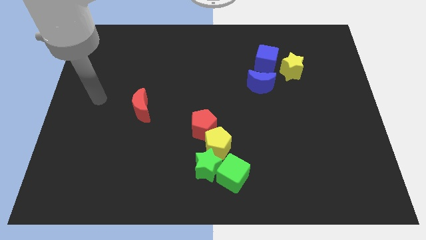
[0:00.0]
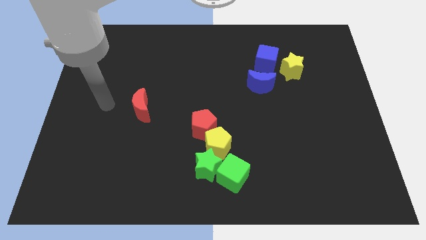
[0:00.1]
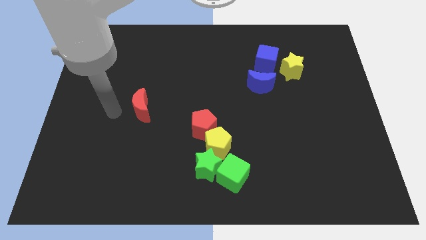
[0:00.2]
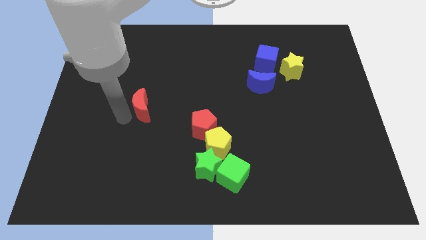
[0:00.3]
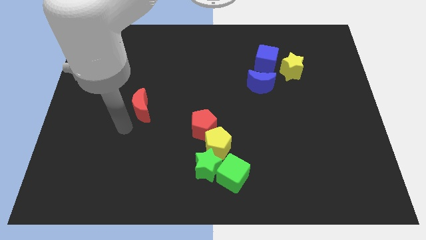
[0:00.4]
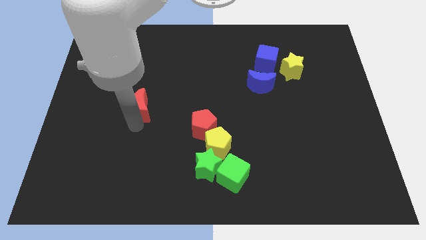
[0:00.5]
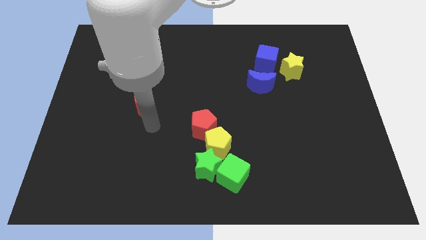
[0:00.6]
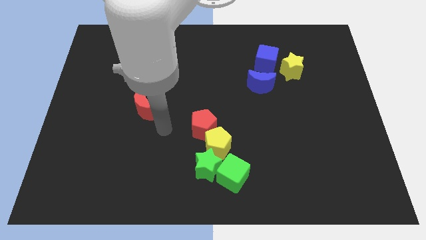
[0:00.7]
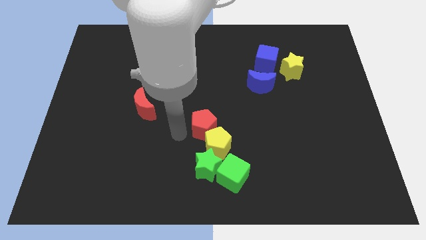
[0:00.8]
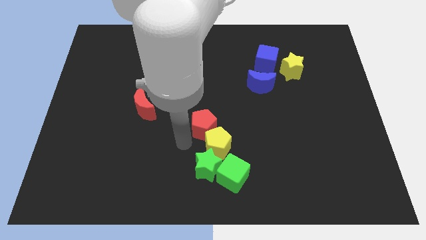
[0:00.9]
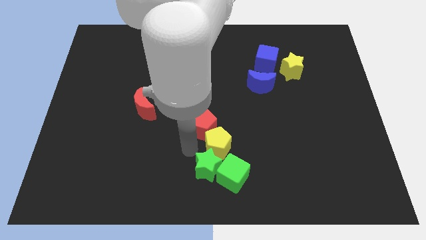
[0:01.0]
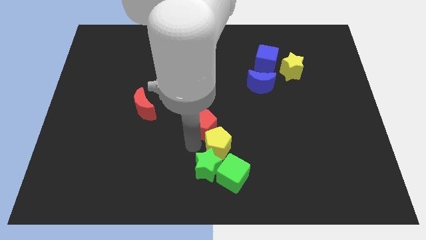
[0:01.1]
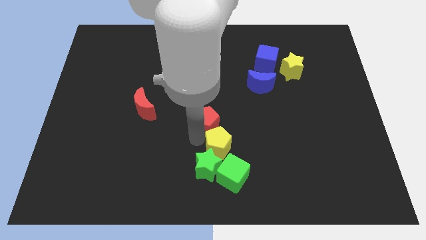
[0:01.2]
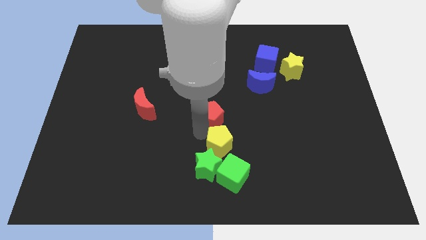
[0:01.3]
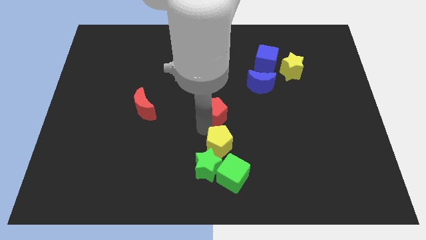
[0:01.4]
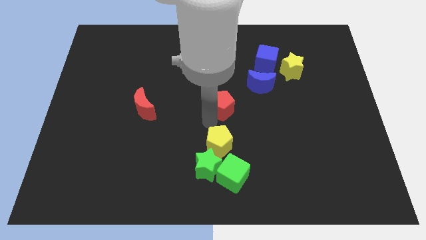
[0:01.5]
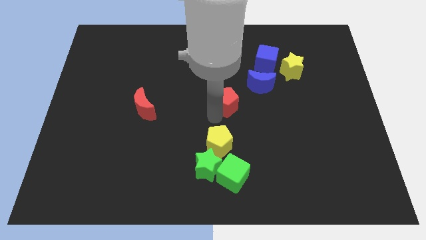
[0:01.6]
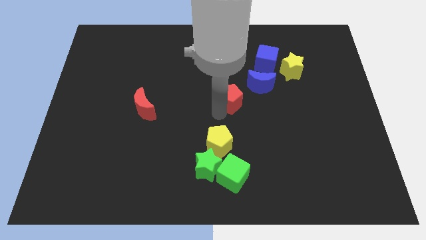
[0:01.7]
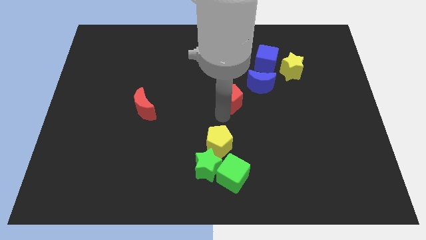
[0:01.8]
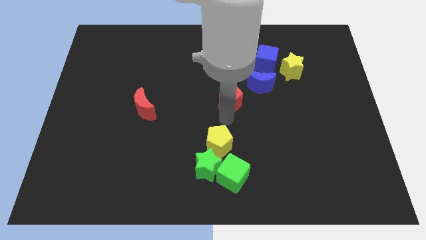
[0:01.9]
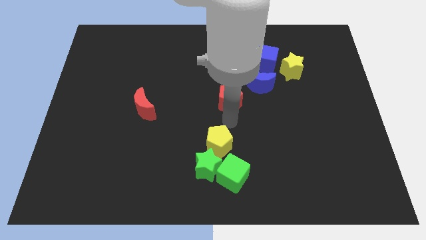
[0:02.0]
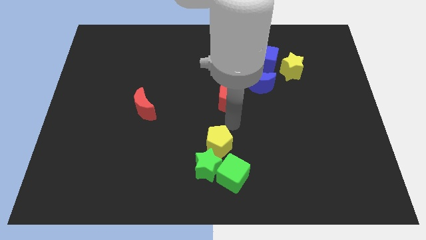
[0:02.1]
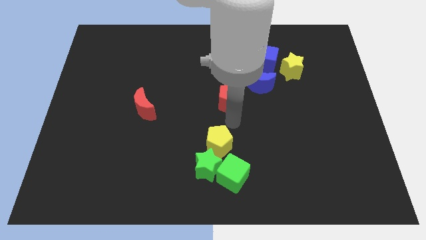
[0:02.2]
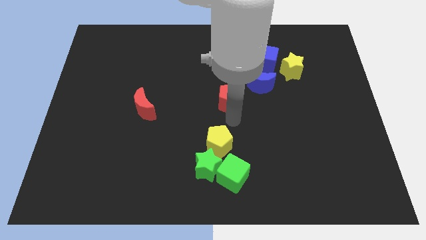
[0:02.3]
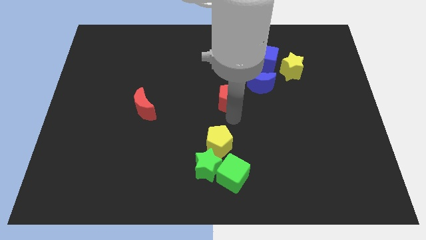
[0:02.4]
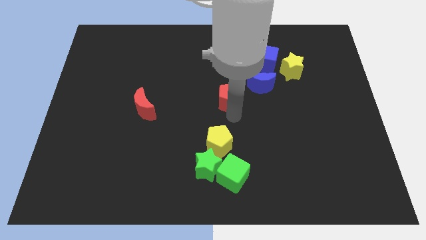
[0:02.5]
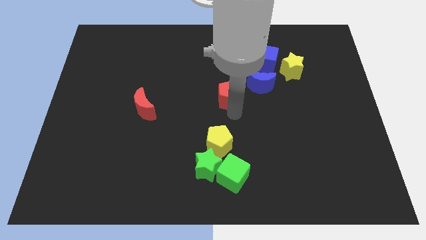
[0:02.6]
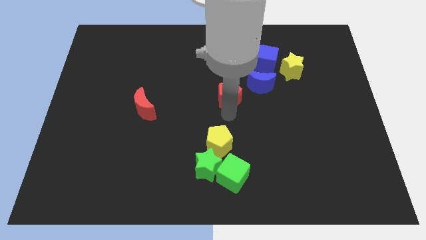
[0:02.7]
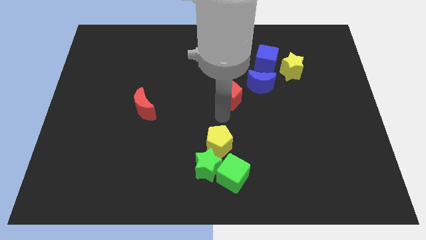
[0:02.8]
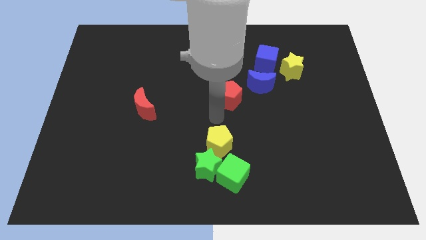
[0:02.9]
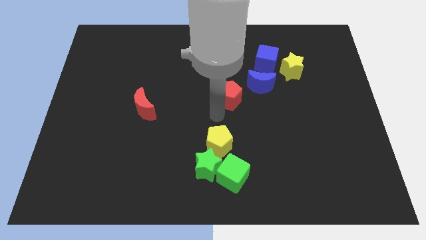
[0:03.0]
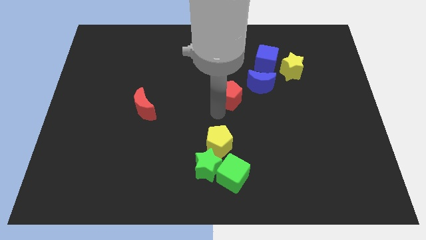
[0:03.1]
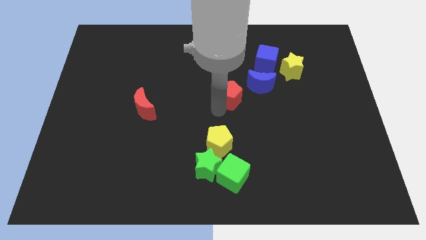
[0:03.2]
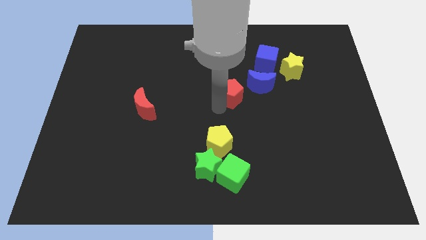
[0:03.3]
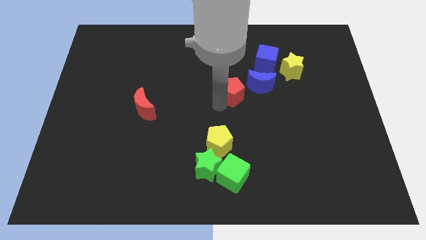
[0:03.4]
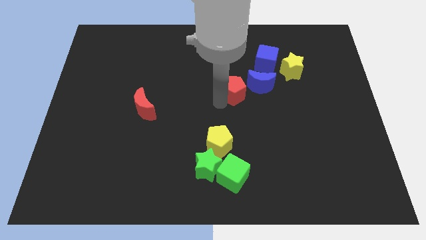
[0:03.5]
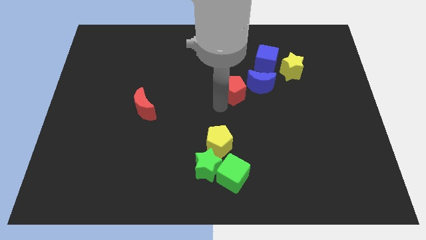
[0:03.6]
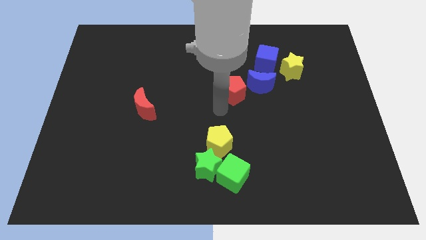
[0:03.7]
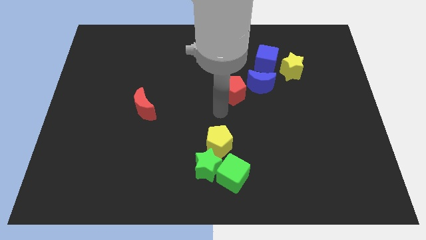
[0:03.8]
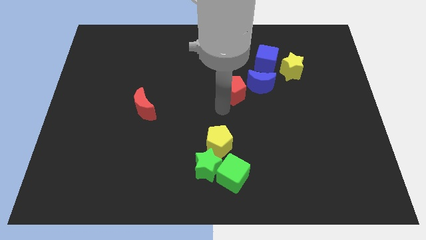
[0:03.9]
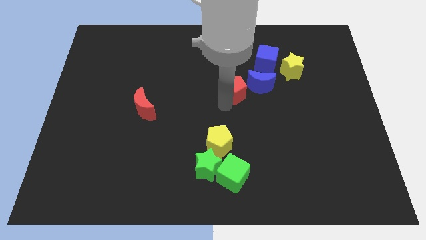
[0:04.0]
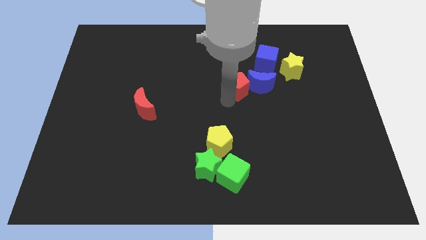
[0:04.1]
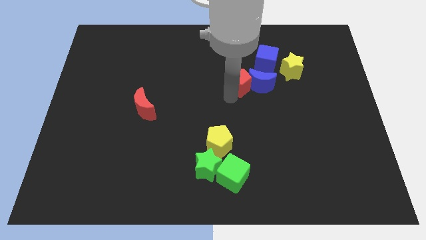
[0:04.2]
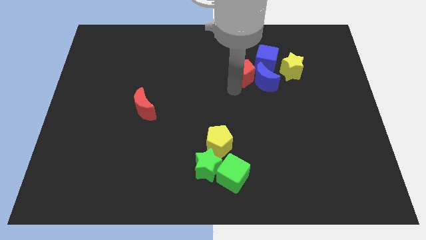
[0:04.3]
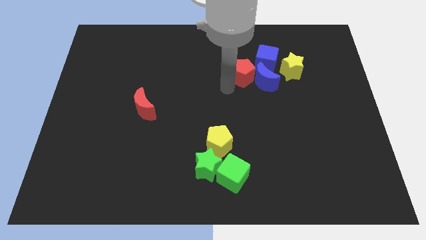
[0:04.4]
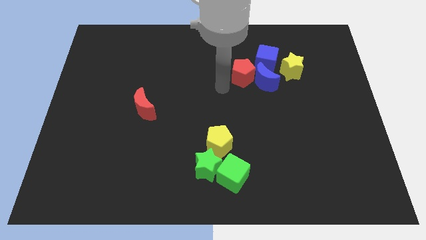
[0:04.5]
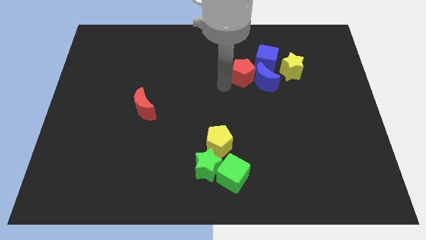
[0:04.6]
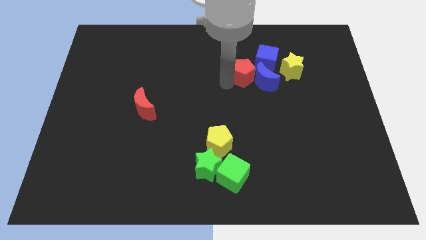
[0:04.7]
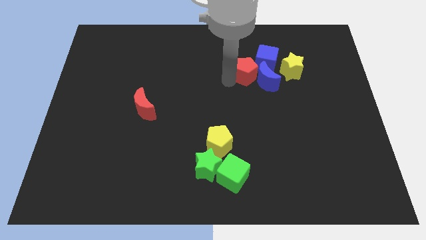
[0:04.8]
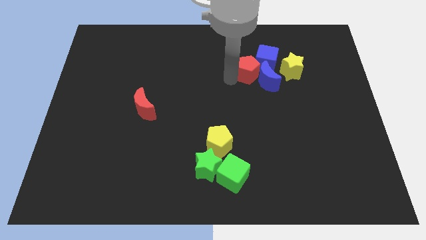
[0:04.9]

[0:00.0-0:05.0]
put the red pentagon towards the blue cube

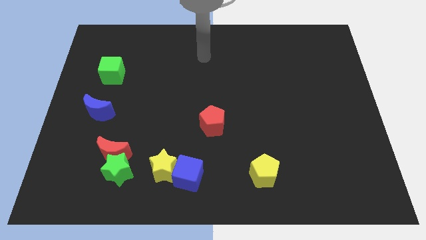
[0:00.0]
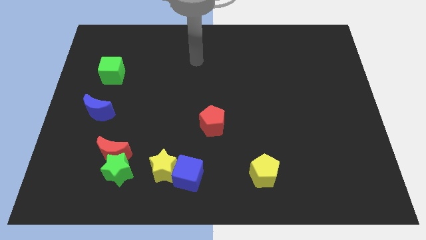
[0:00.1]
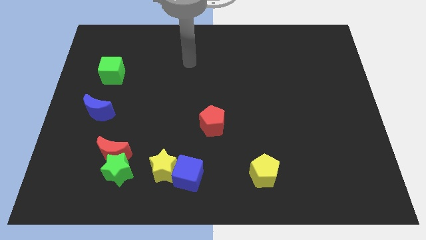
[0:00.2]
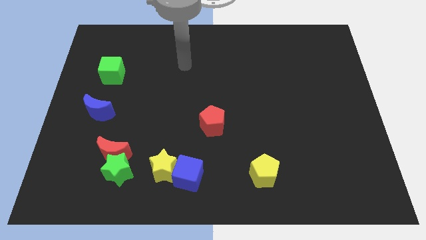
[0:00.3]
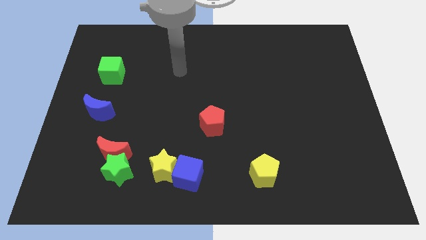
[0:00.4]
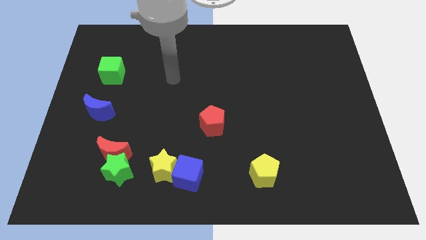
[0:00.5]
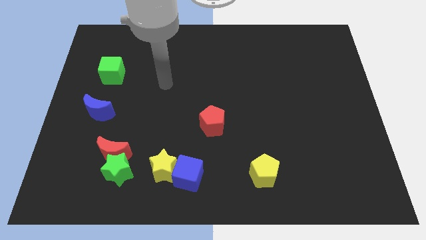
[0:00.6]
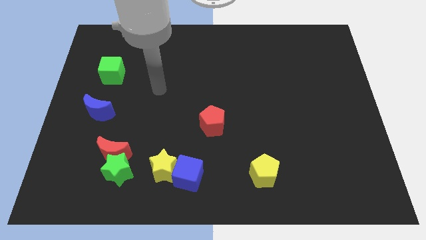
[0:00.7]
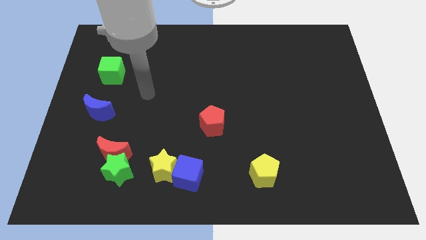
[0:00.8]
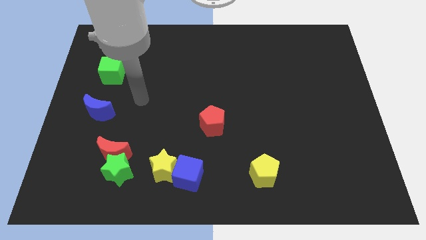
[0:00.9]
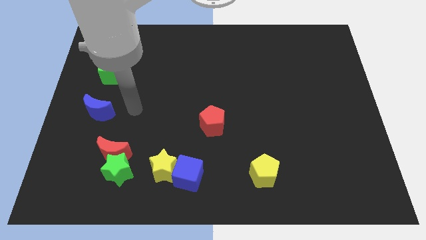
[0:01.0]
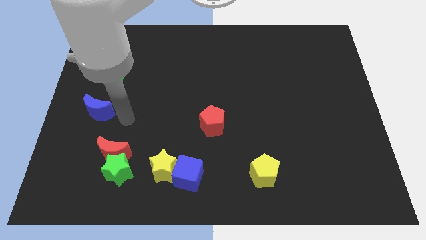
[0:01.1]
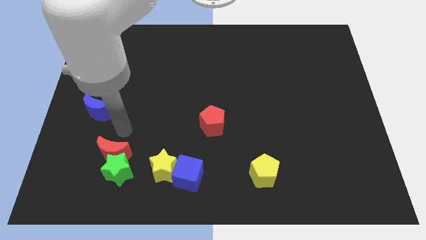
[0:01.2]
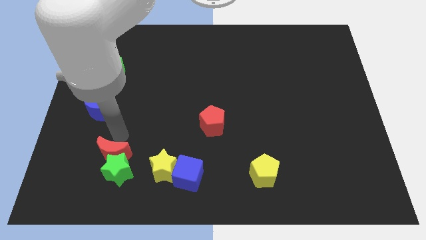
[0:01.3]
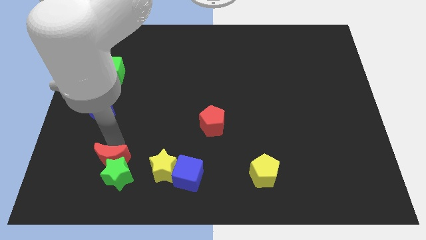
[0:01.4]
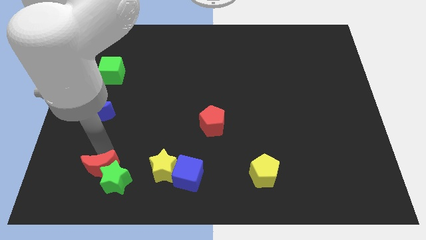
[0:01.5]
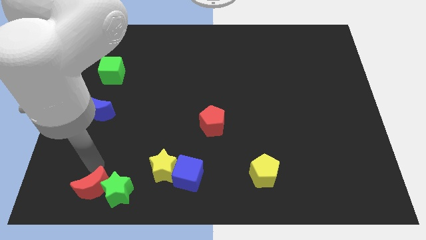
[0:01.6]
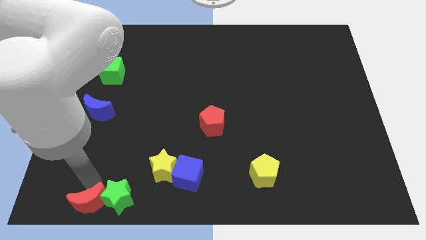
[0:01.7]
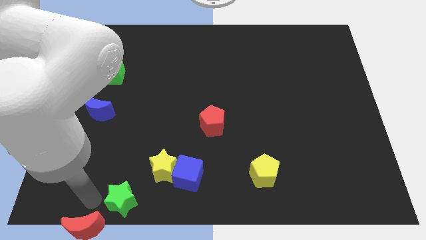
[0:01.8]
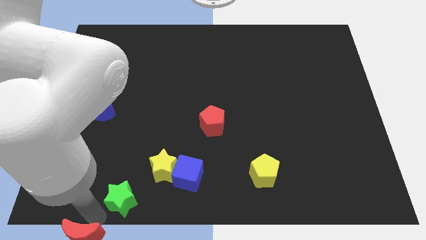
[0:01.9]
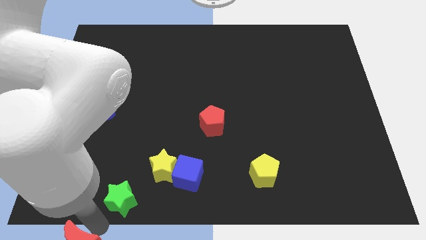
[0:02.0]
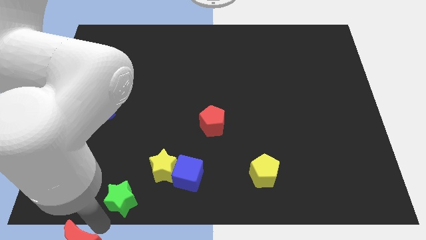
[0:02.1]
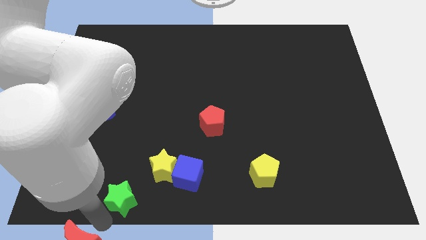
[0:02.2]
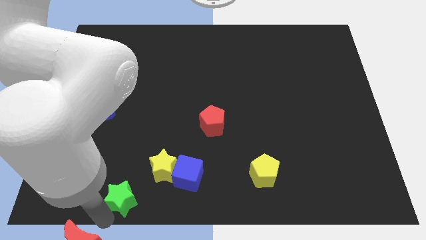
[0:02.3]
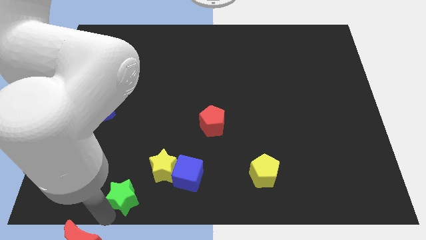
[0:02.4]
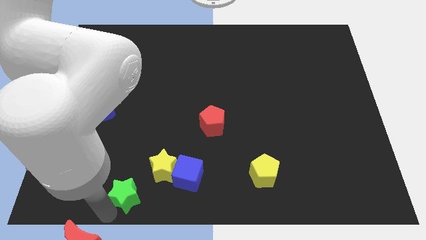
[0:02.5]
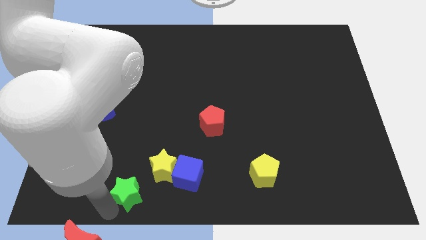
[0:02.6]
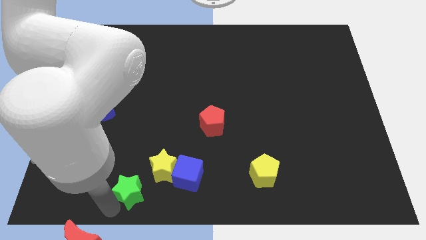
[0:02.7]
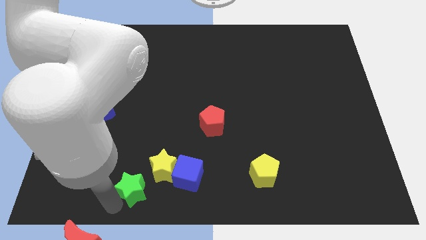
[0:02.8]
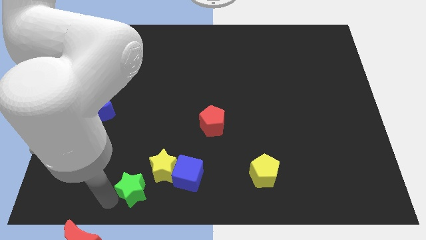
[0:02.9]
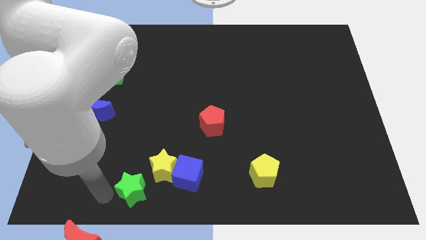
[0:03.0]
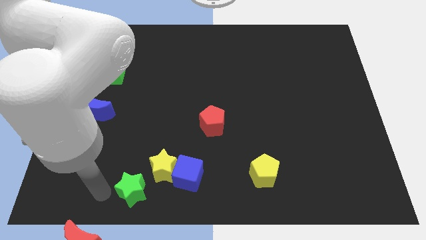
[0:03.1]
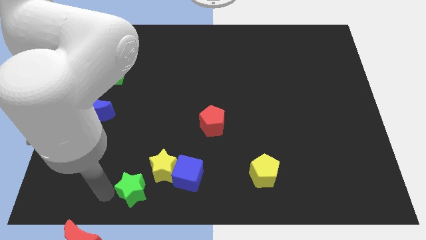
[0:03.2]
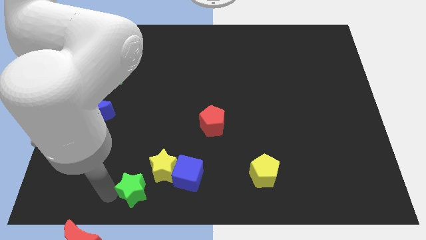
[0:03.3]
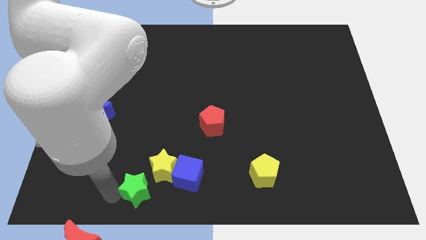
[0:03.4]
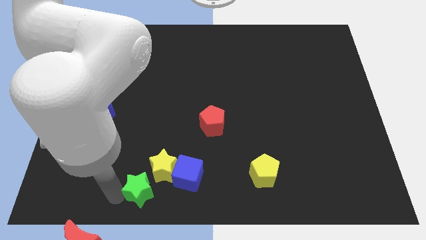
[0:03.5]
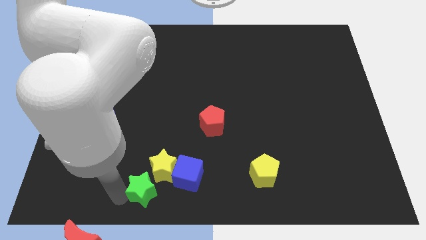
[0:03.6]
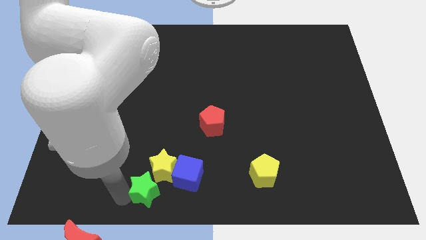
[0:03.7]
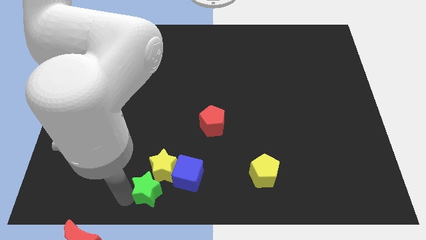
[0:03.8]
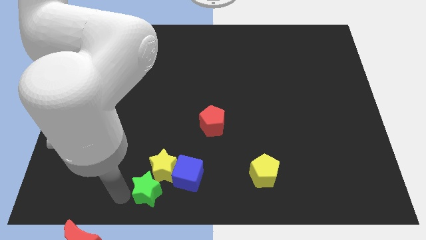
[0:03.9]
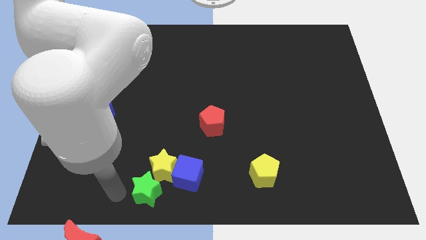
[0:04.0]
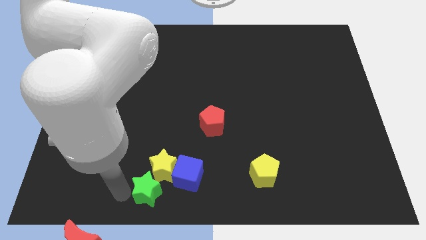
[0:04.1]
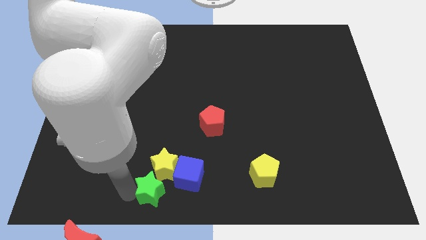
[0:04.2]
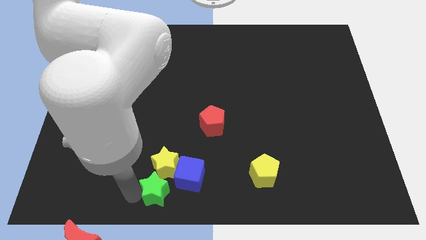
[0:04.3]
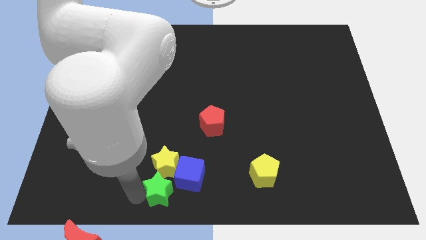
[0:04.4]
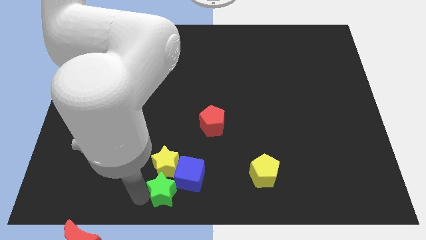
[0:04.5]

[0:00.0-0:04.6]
slide the green star next to the blue cube
